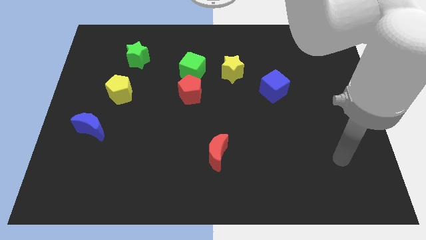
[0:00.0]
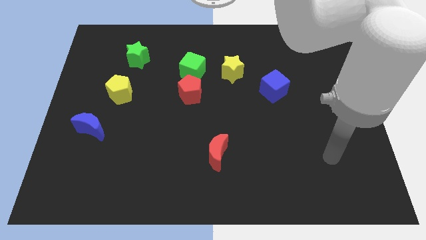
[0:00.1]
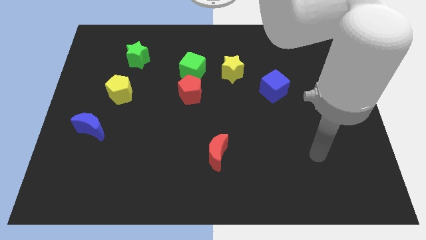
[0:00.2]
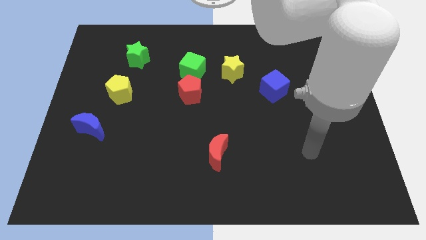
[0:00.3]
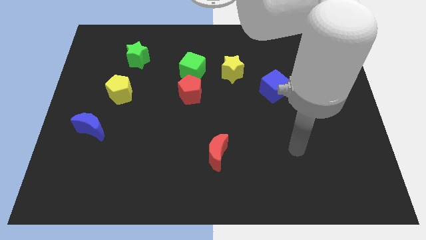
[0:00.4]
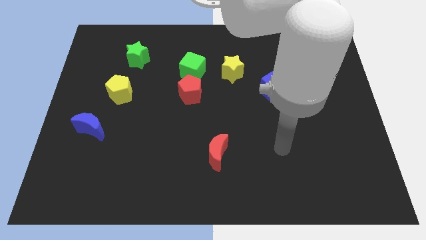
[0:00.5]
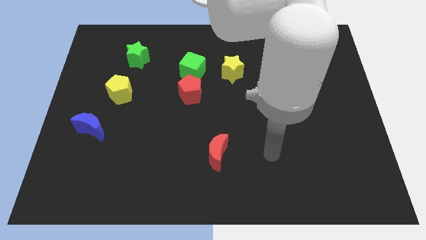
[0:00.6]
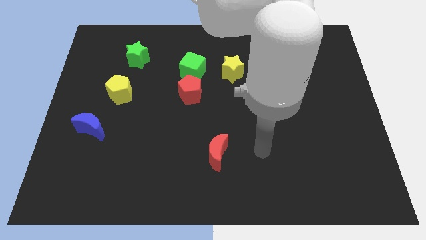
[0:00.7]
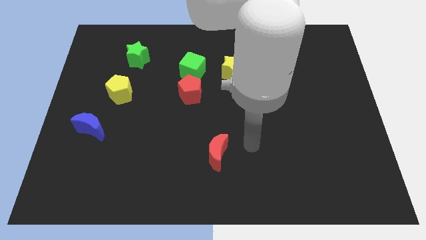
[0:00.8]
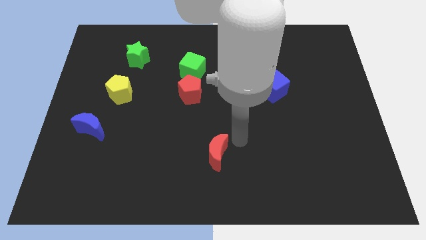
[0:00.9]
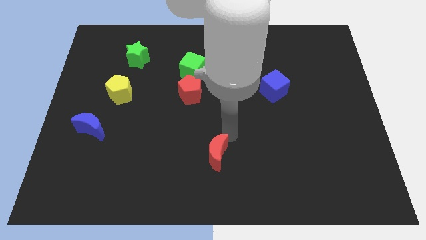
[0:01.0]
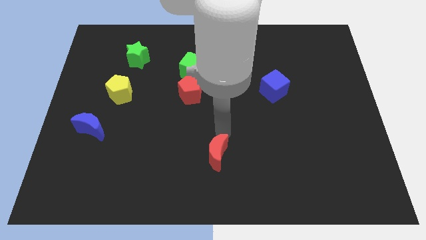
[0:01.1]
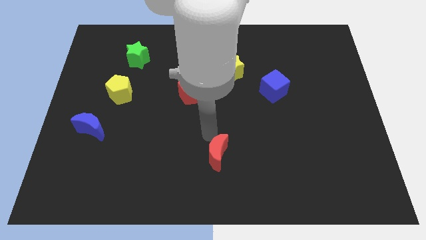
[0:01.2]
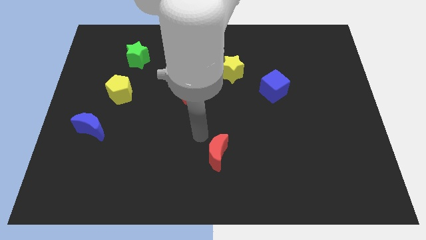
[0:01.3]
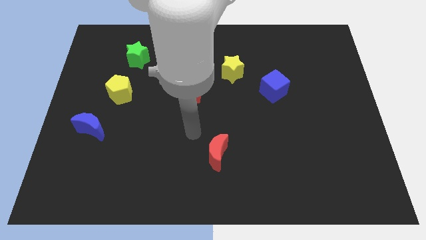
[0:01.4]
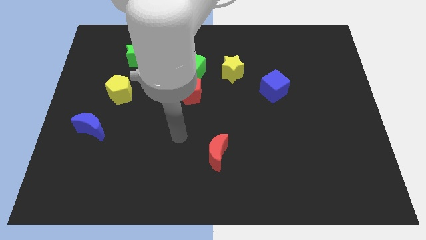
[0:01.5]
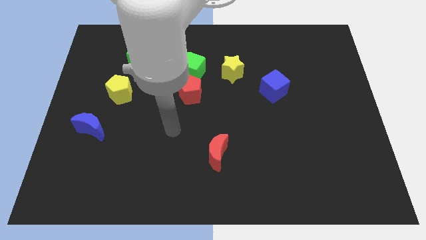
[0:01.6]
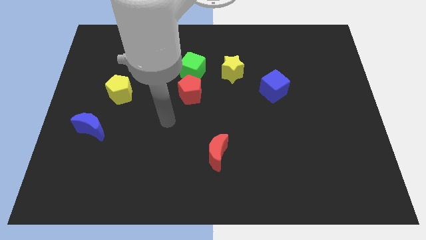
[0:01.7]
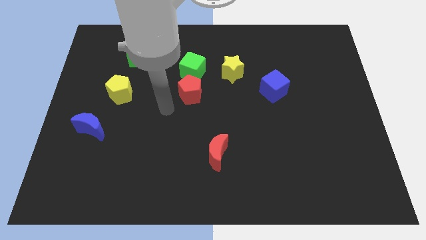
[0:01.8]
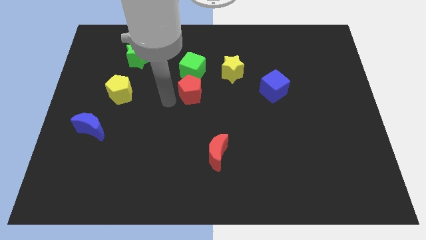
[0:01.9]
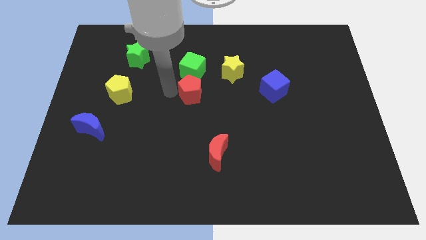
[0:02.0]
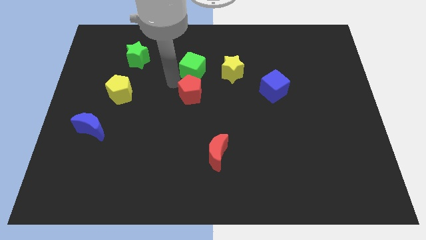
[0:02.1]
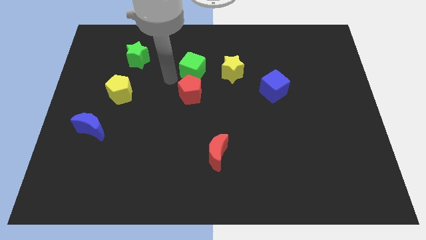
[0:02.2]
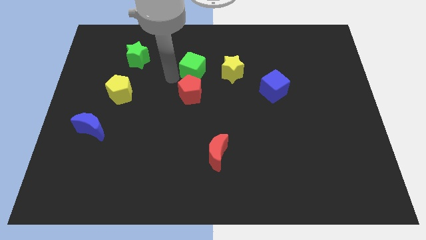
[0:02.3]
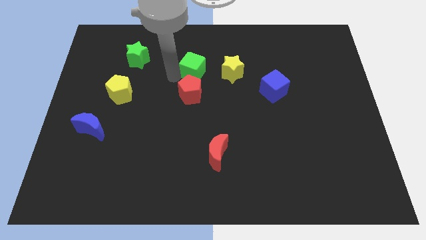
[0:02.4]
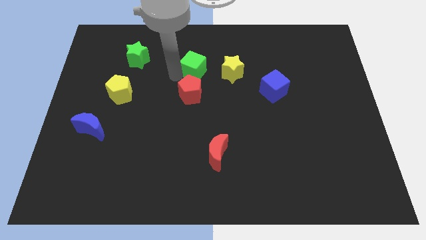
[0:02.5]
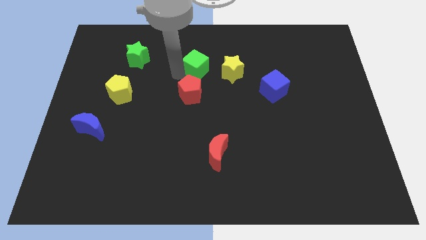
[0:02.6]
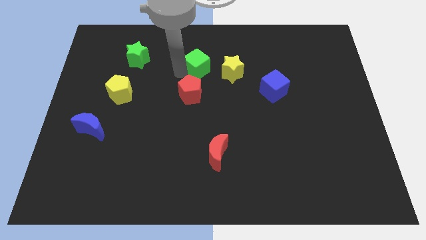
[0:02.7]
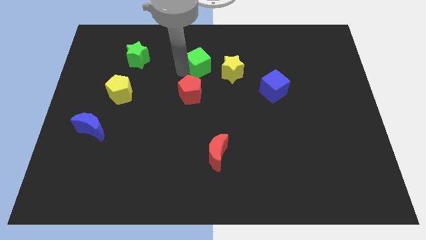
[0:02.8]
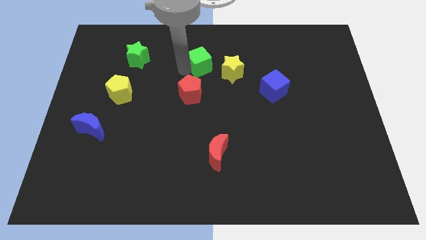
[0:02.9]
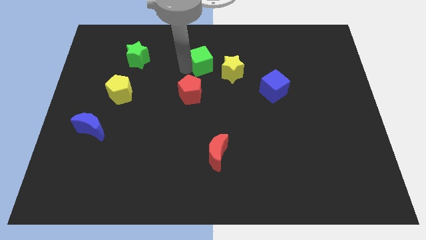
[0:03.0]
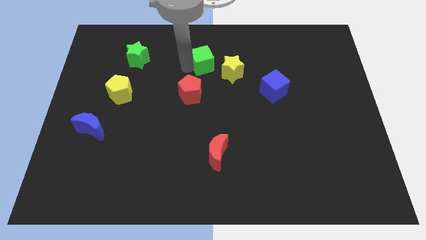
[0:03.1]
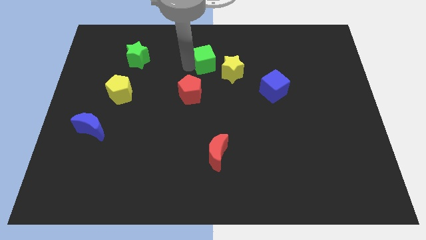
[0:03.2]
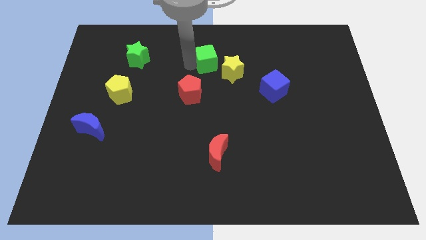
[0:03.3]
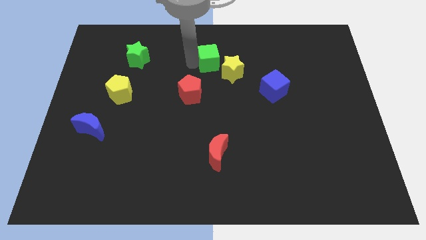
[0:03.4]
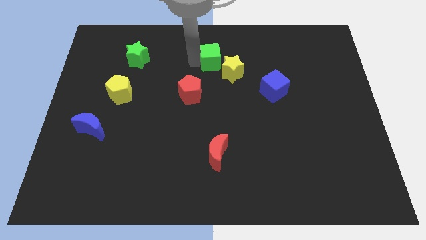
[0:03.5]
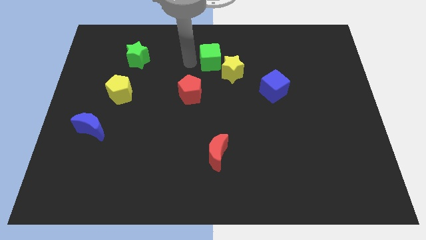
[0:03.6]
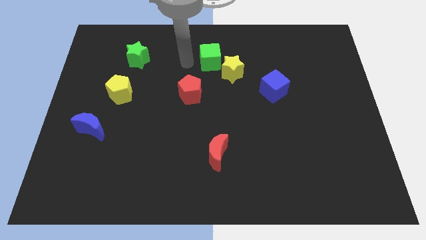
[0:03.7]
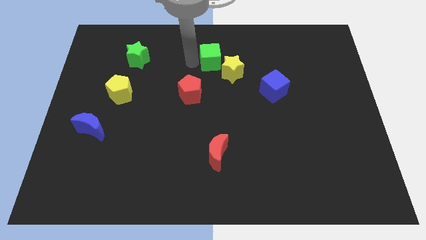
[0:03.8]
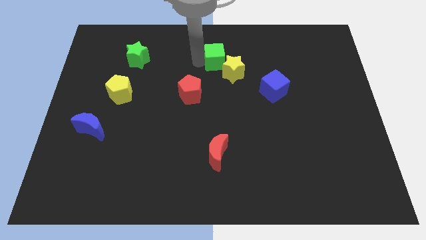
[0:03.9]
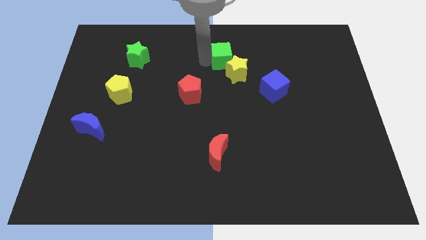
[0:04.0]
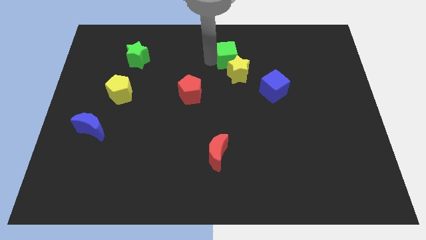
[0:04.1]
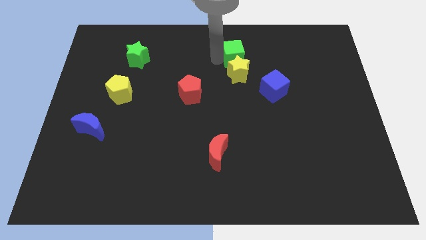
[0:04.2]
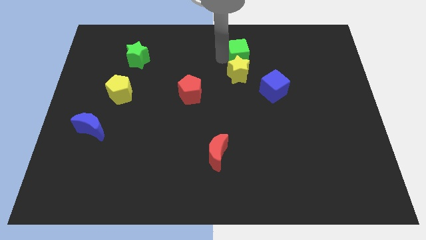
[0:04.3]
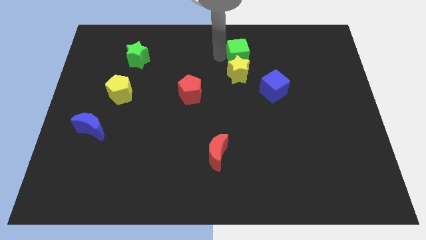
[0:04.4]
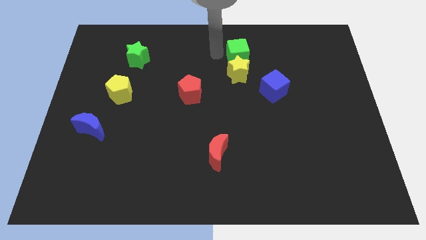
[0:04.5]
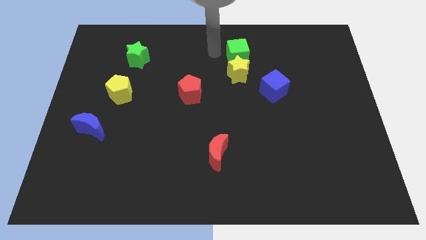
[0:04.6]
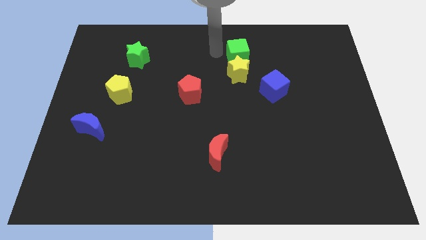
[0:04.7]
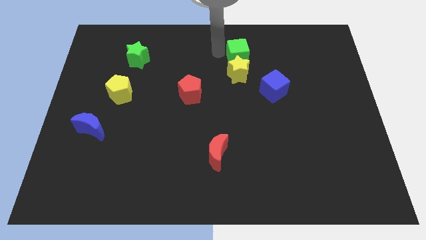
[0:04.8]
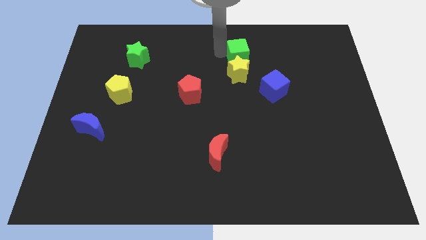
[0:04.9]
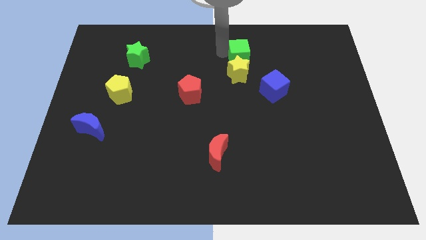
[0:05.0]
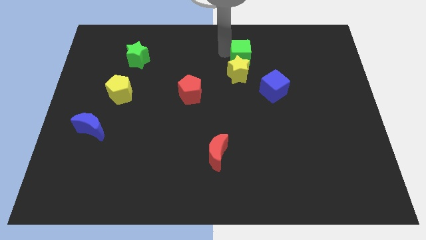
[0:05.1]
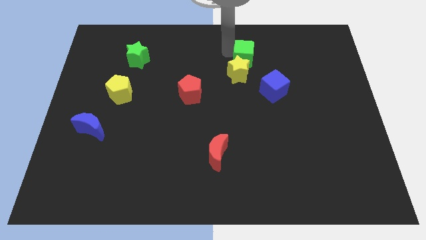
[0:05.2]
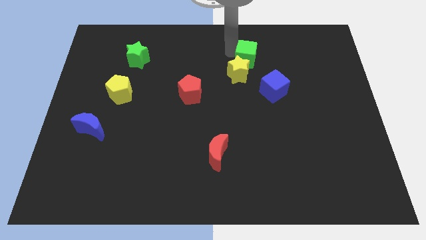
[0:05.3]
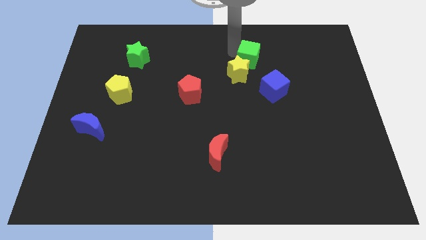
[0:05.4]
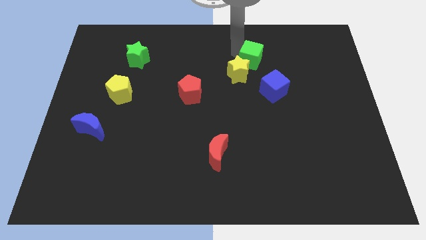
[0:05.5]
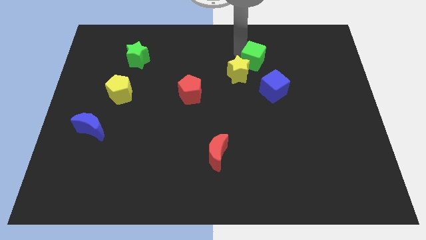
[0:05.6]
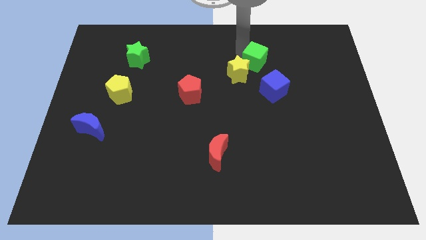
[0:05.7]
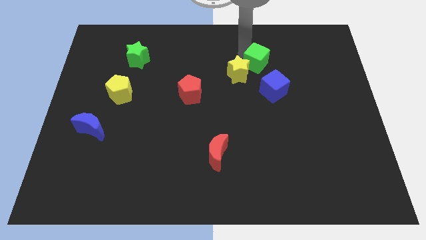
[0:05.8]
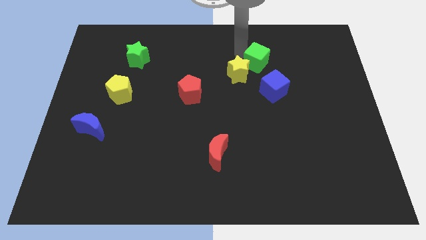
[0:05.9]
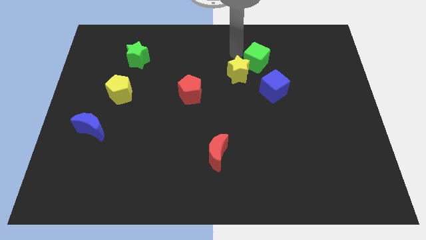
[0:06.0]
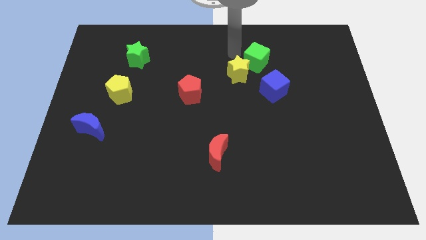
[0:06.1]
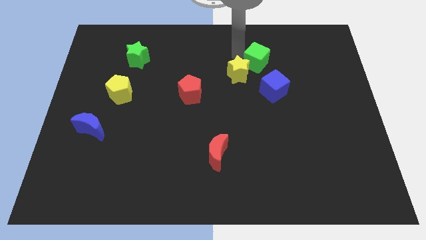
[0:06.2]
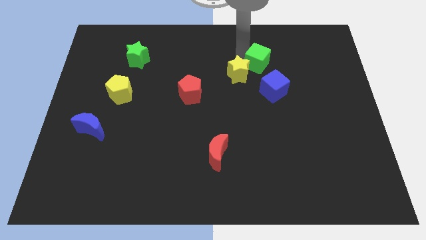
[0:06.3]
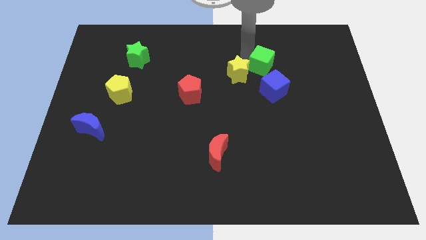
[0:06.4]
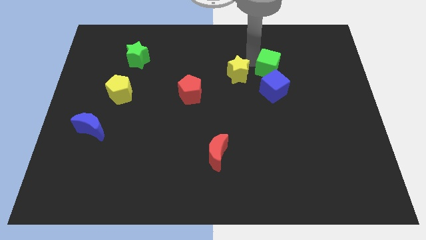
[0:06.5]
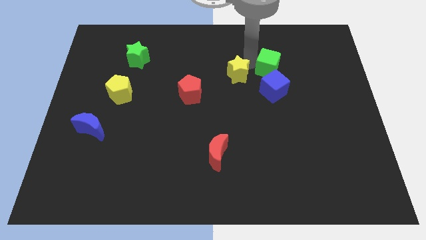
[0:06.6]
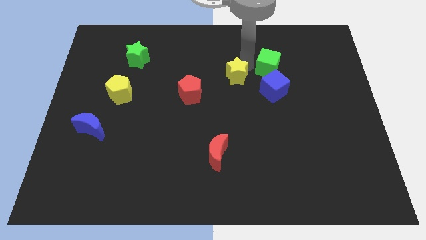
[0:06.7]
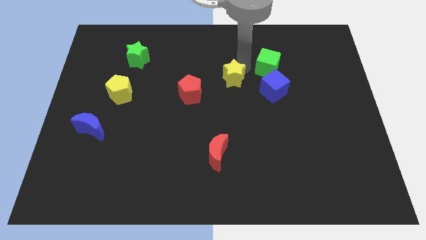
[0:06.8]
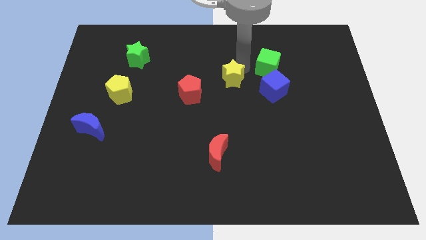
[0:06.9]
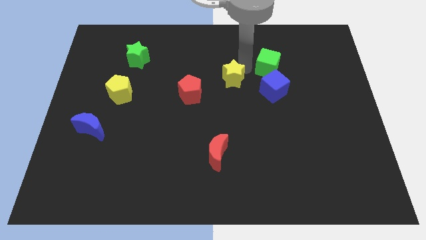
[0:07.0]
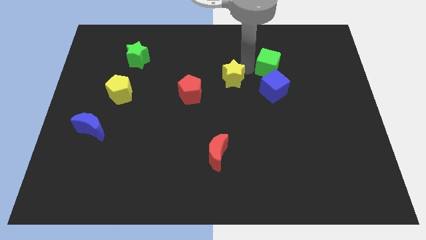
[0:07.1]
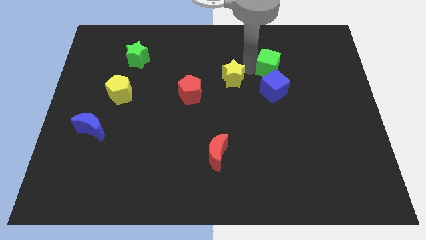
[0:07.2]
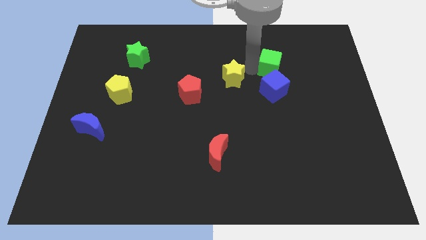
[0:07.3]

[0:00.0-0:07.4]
slide the green cube to the right

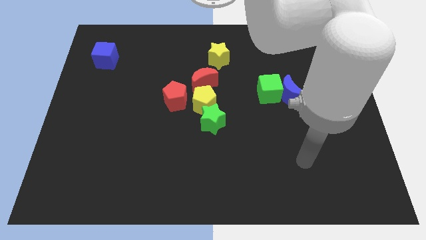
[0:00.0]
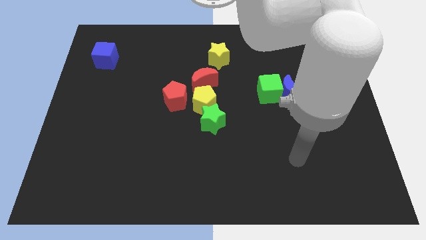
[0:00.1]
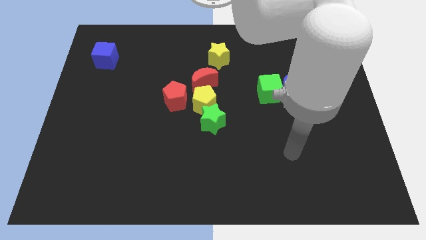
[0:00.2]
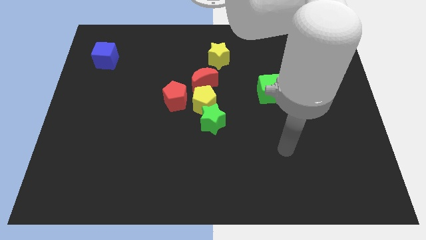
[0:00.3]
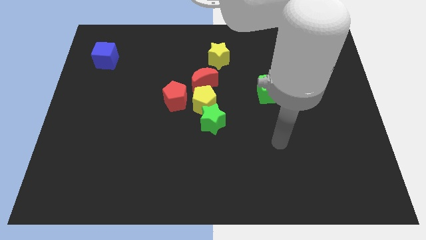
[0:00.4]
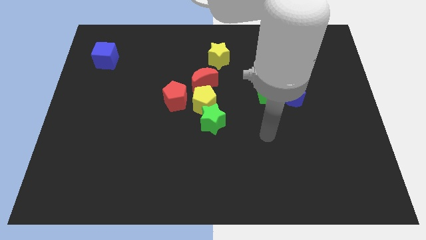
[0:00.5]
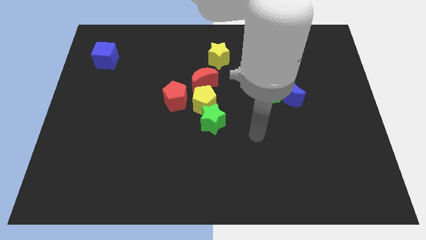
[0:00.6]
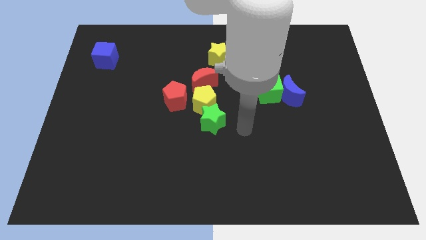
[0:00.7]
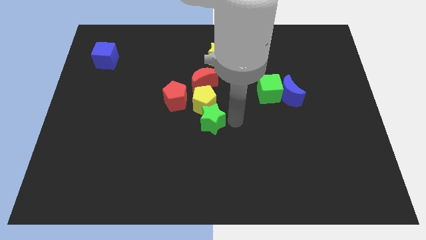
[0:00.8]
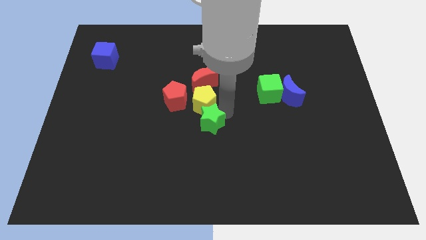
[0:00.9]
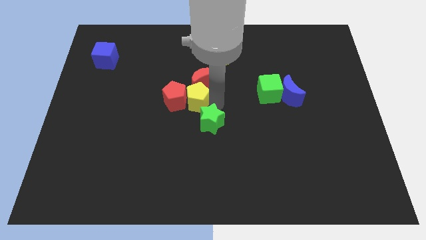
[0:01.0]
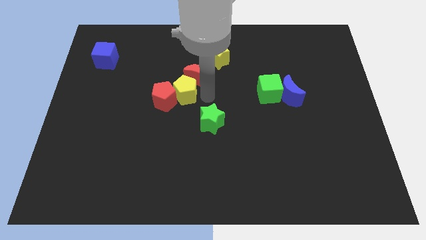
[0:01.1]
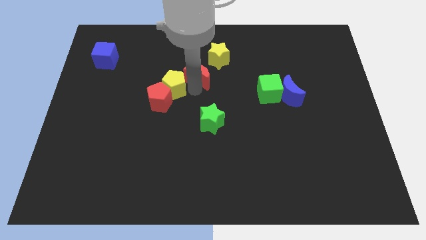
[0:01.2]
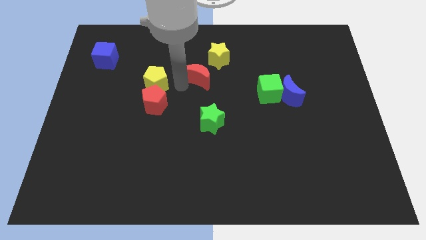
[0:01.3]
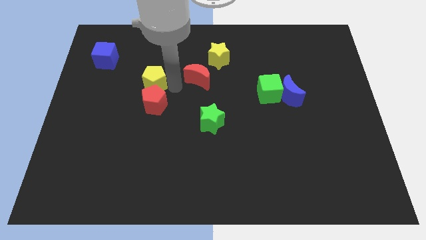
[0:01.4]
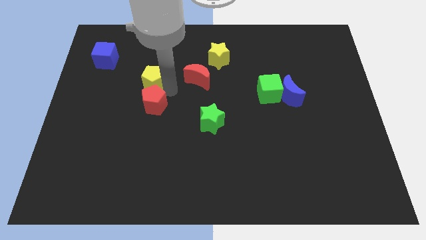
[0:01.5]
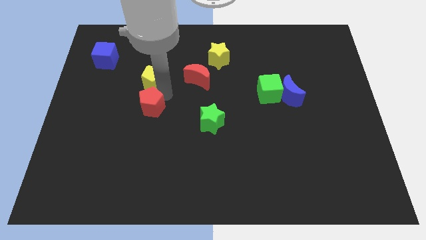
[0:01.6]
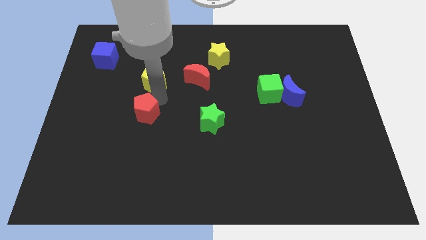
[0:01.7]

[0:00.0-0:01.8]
move the red pentagon diagonally downwards and to the left somewhat
